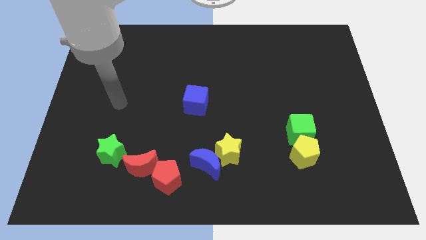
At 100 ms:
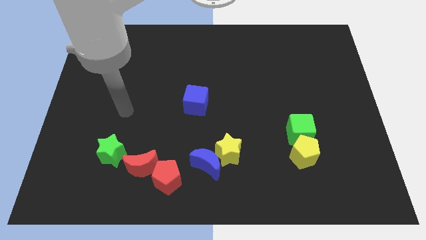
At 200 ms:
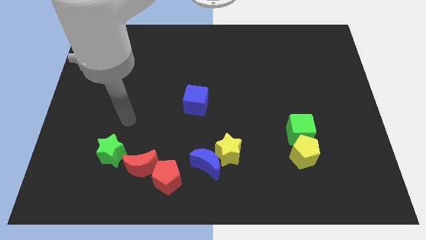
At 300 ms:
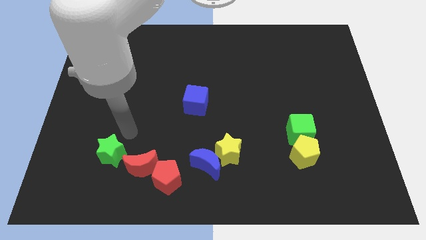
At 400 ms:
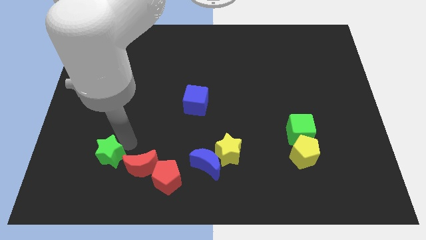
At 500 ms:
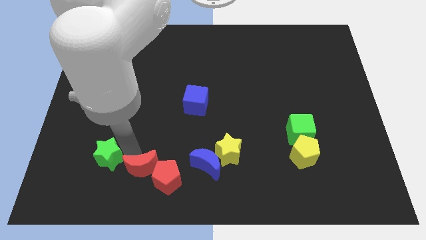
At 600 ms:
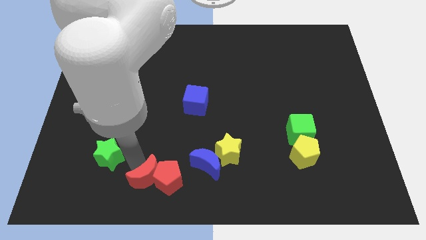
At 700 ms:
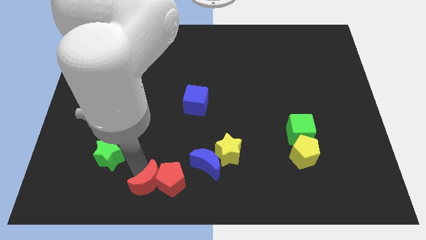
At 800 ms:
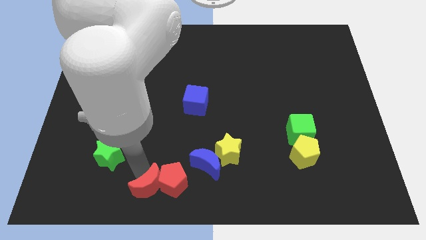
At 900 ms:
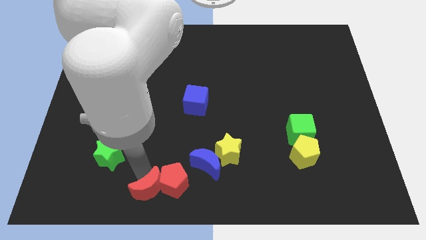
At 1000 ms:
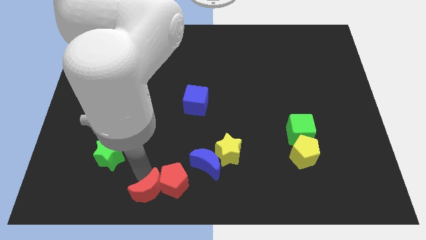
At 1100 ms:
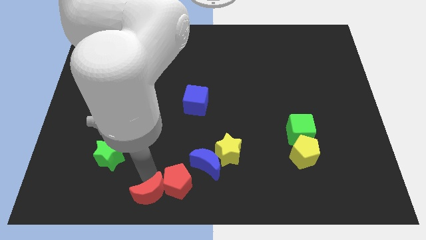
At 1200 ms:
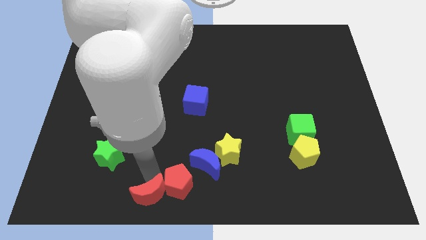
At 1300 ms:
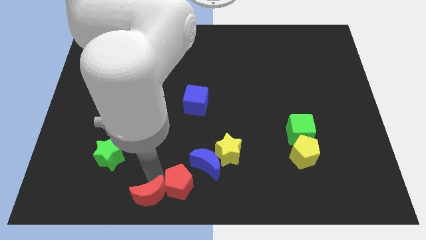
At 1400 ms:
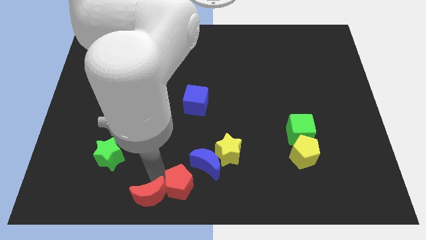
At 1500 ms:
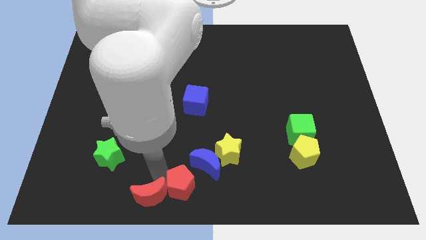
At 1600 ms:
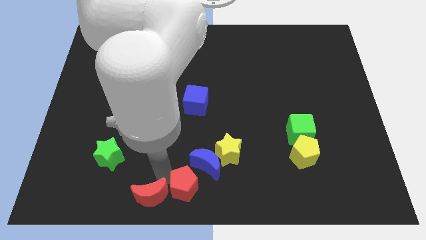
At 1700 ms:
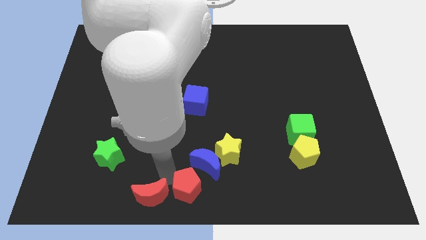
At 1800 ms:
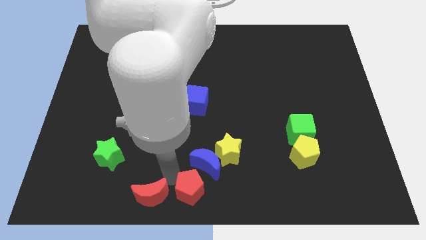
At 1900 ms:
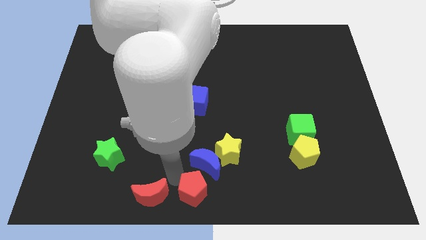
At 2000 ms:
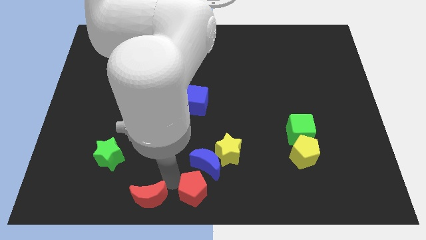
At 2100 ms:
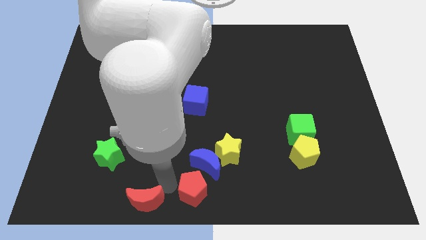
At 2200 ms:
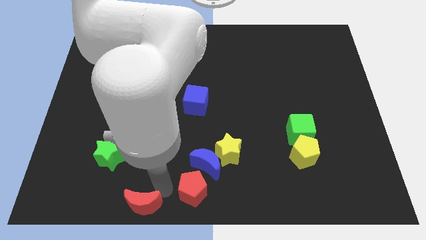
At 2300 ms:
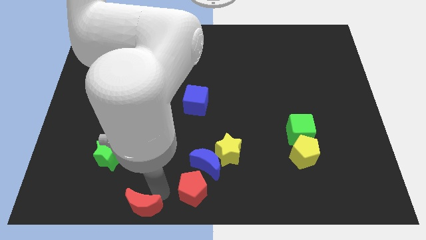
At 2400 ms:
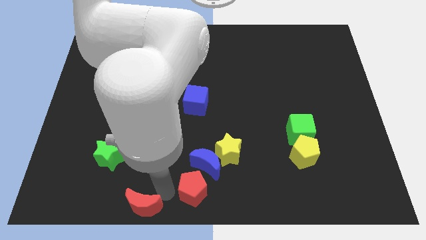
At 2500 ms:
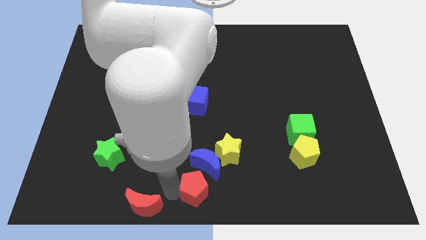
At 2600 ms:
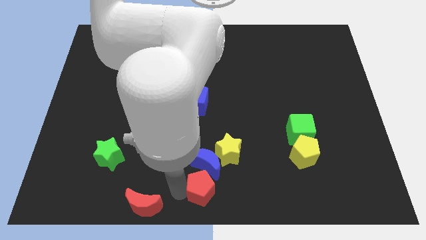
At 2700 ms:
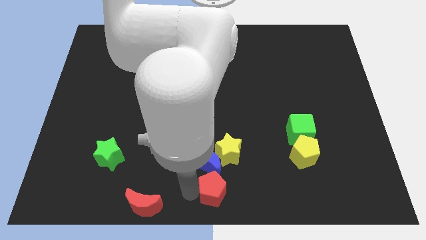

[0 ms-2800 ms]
push the red pentagon somewhat right

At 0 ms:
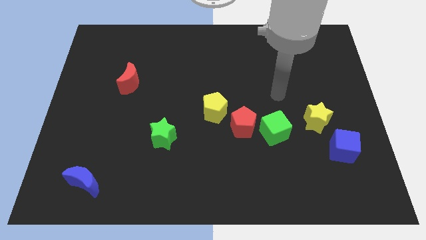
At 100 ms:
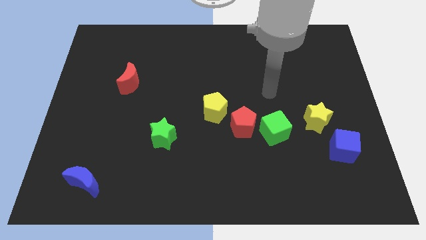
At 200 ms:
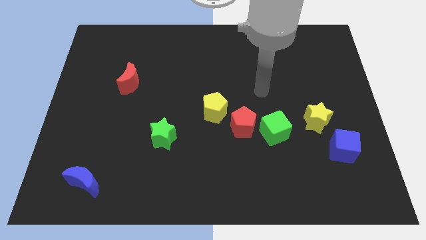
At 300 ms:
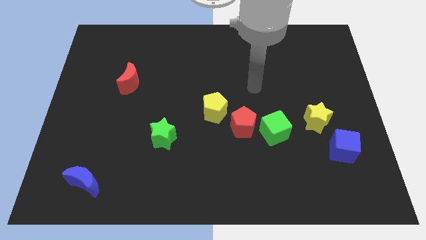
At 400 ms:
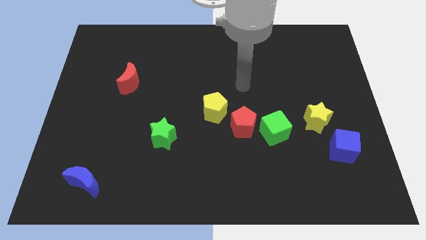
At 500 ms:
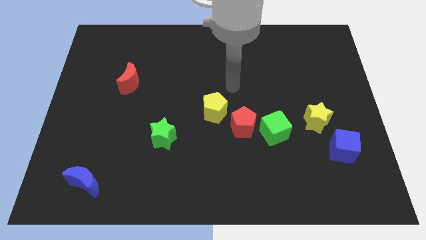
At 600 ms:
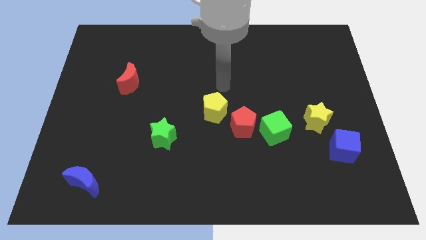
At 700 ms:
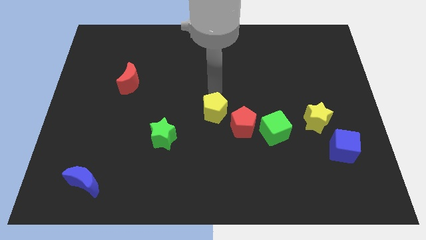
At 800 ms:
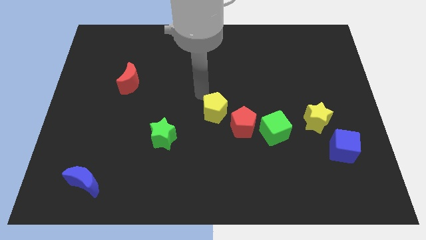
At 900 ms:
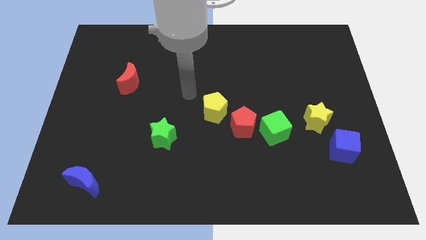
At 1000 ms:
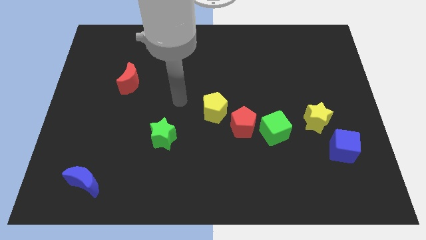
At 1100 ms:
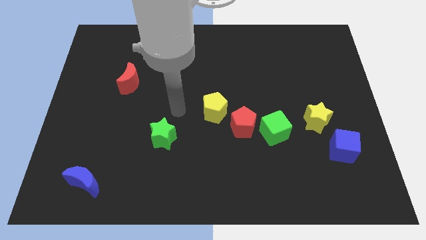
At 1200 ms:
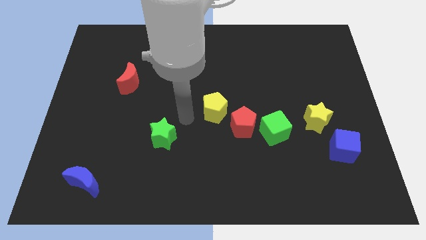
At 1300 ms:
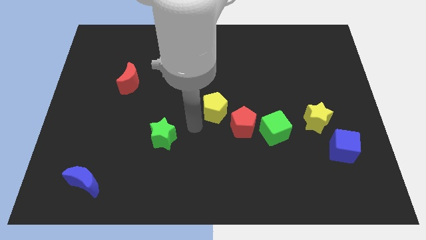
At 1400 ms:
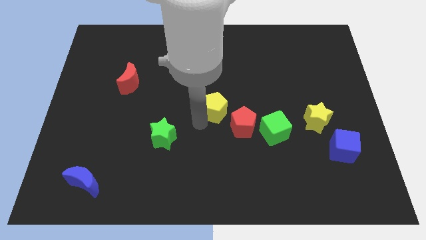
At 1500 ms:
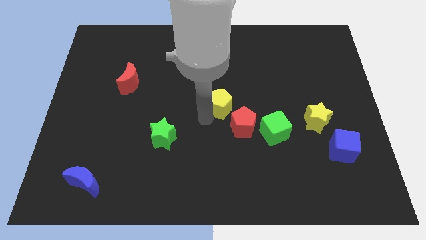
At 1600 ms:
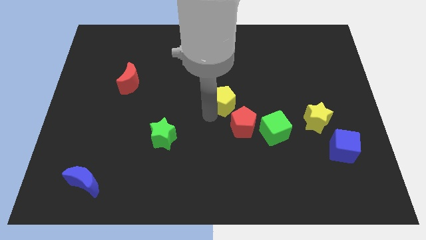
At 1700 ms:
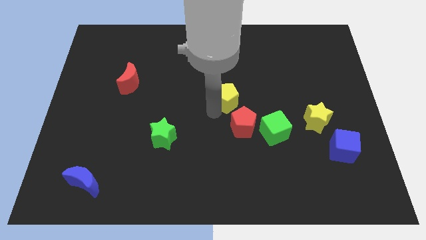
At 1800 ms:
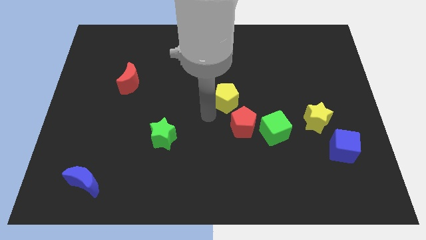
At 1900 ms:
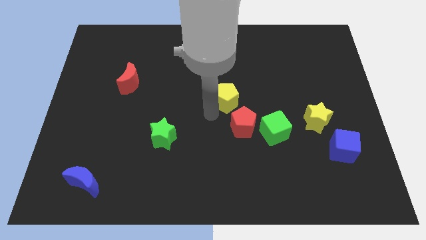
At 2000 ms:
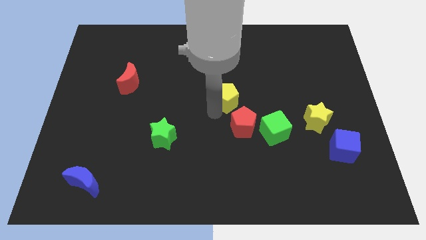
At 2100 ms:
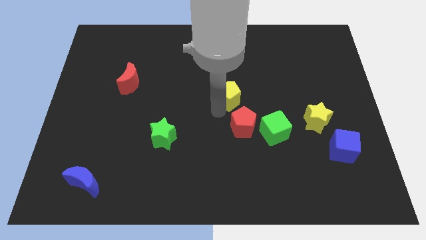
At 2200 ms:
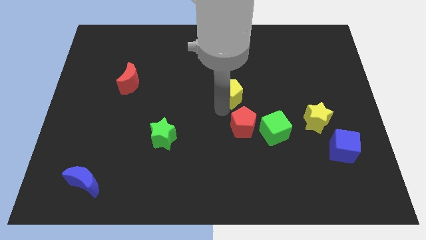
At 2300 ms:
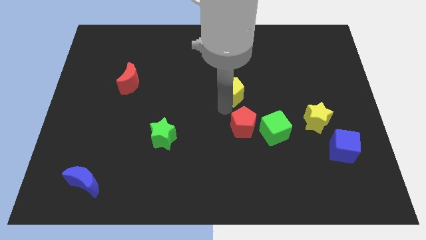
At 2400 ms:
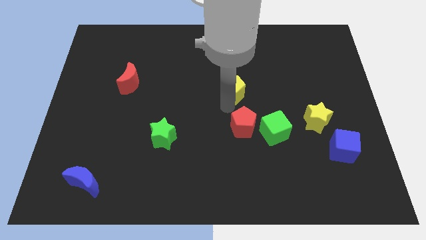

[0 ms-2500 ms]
push the yellow pentagon diagonally upwards and to the right a little

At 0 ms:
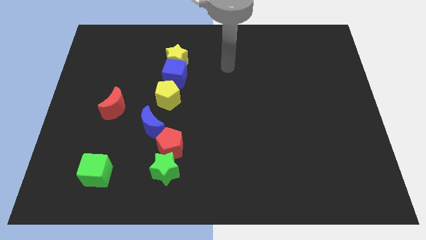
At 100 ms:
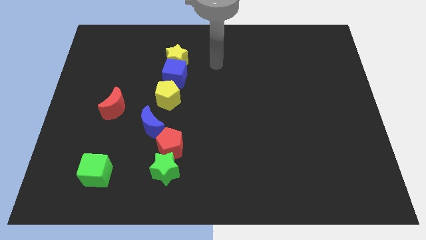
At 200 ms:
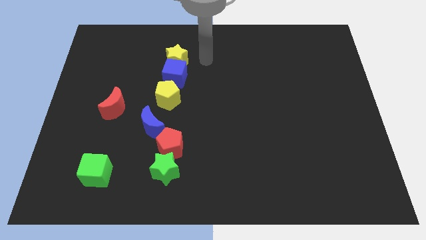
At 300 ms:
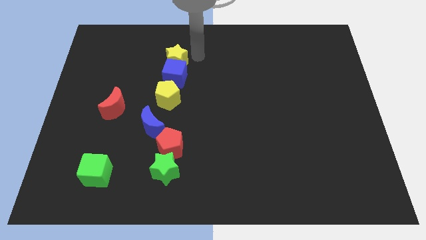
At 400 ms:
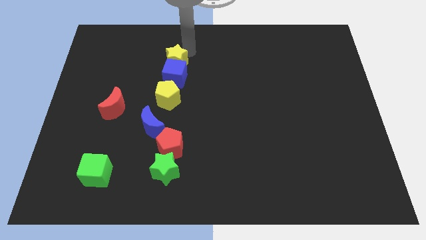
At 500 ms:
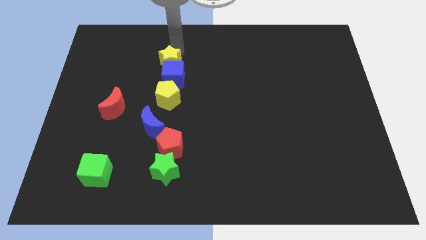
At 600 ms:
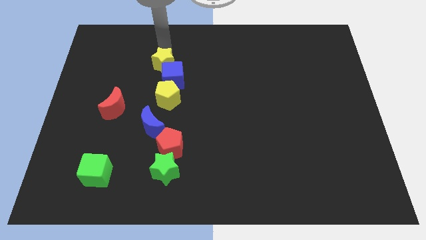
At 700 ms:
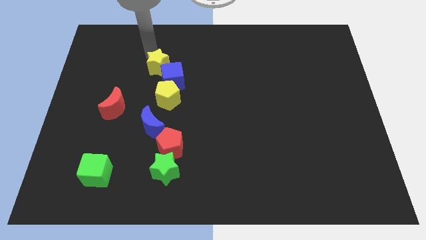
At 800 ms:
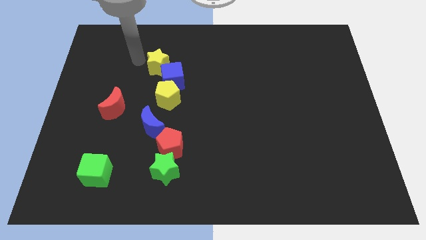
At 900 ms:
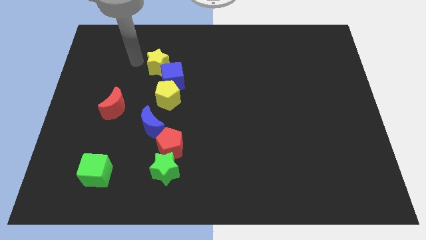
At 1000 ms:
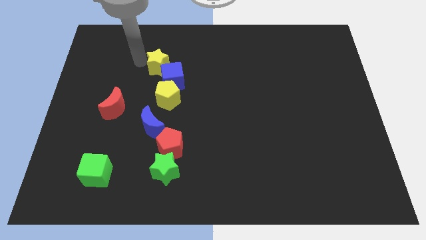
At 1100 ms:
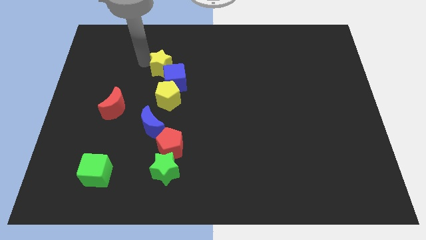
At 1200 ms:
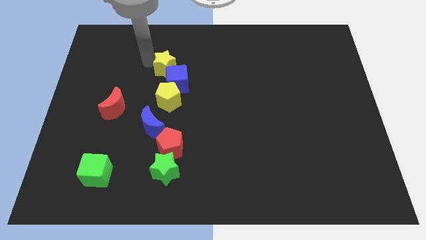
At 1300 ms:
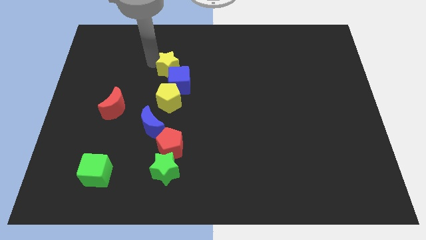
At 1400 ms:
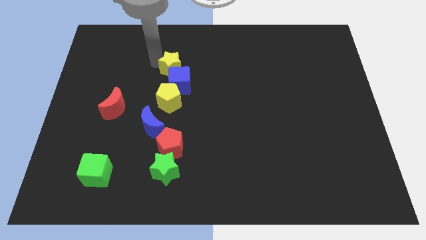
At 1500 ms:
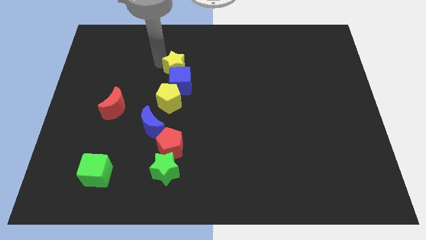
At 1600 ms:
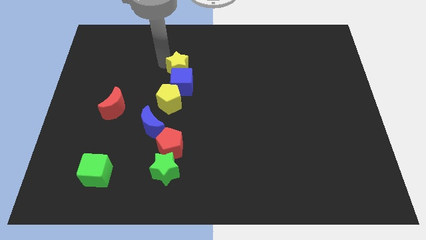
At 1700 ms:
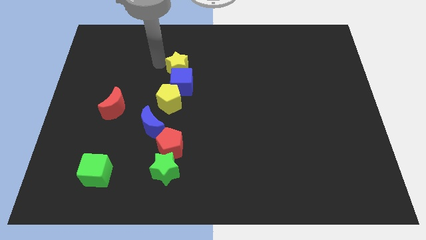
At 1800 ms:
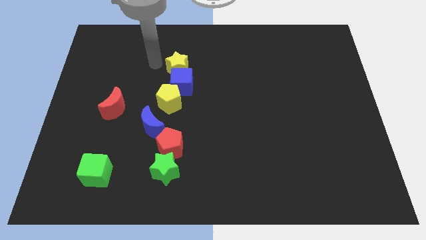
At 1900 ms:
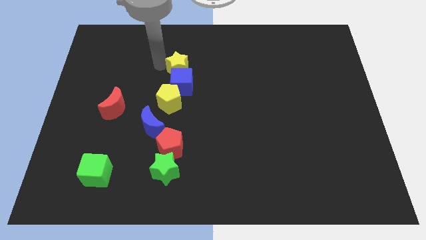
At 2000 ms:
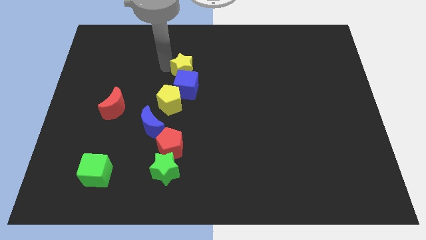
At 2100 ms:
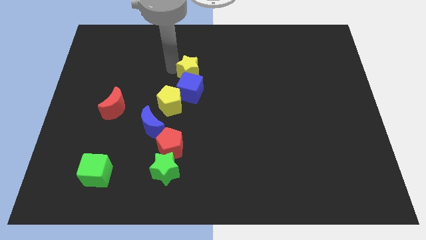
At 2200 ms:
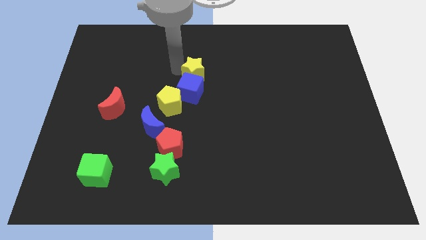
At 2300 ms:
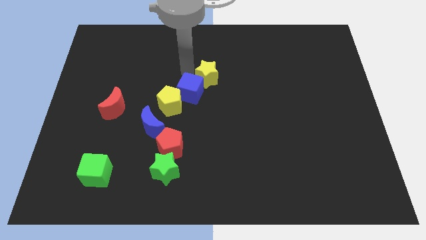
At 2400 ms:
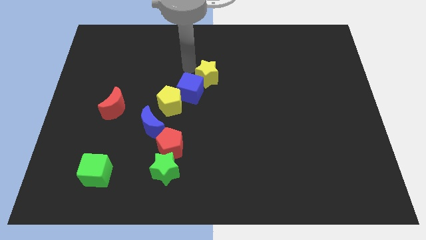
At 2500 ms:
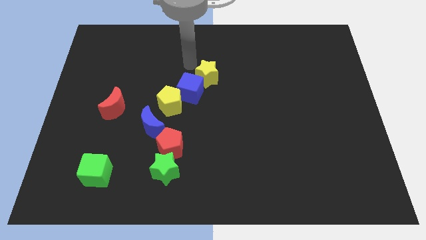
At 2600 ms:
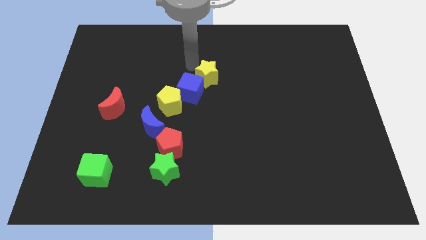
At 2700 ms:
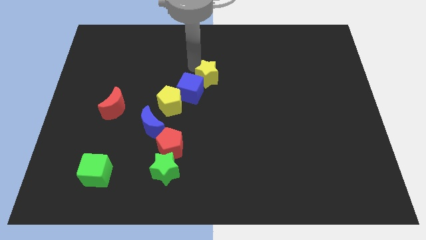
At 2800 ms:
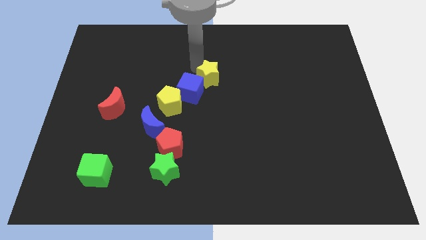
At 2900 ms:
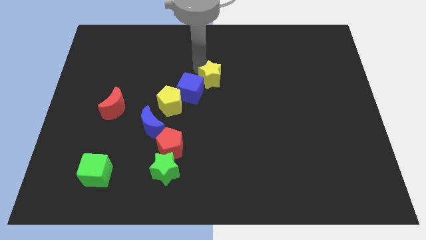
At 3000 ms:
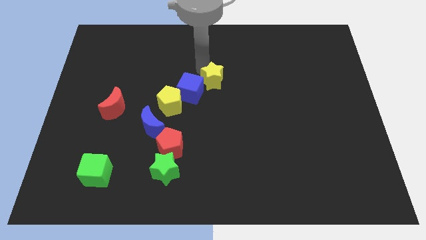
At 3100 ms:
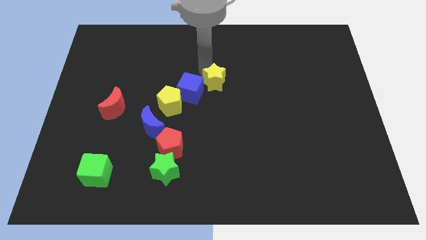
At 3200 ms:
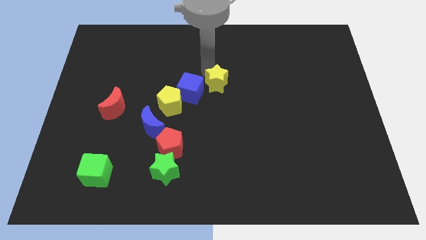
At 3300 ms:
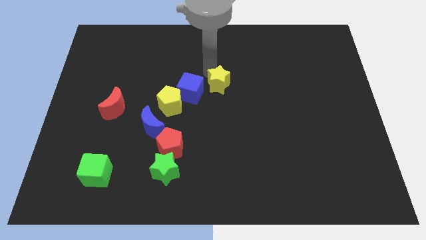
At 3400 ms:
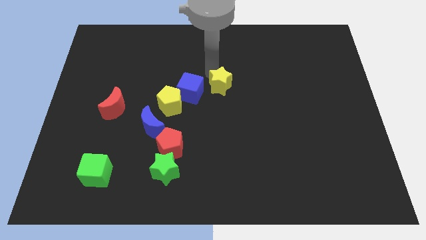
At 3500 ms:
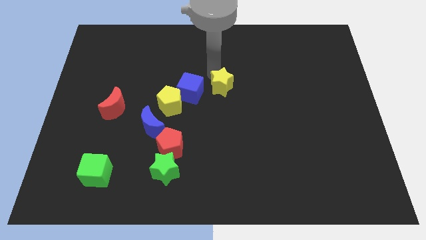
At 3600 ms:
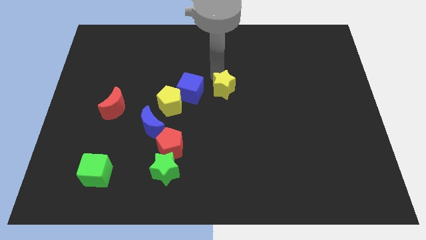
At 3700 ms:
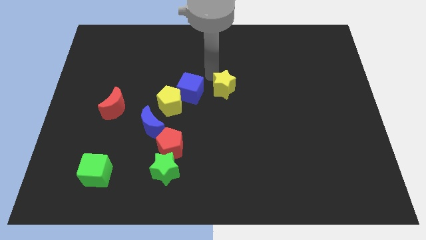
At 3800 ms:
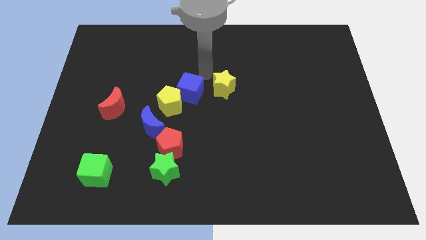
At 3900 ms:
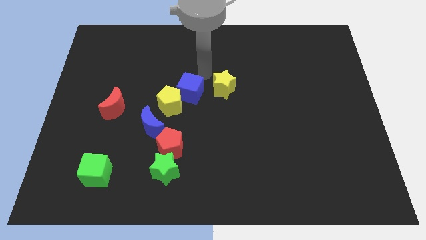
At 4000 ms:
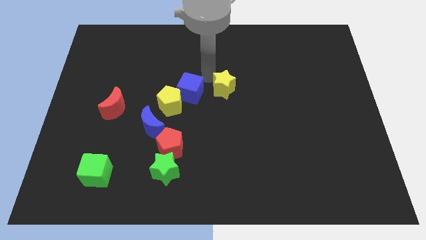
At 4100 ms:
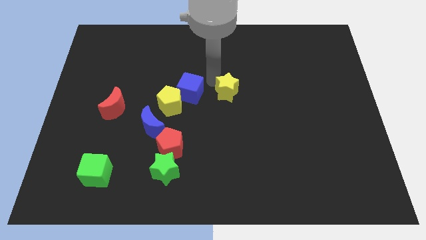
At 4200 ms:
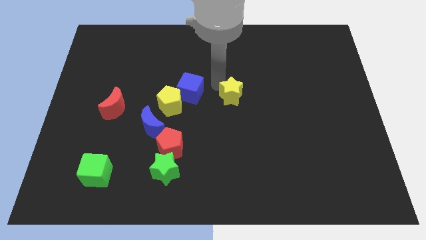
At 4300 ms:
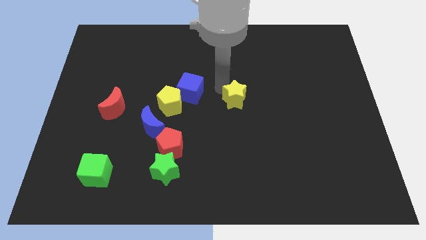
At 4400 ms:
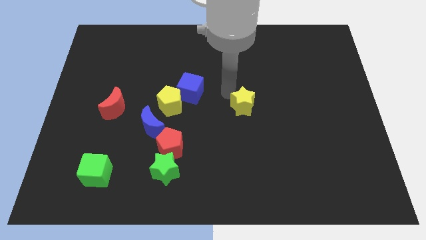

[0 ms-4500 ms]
move the yellow star downwards and right diagonally
